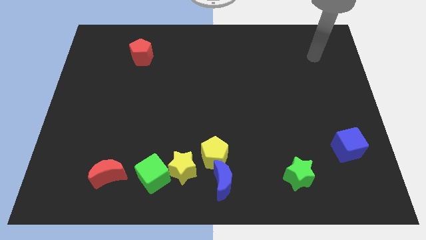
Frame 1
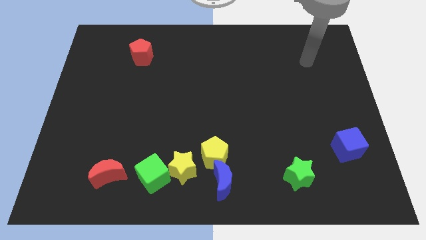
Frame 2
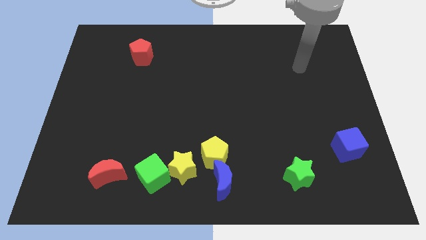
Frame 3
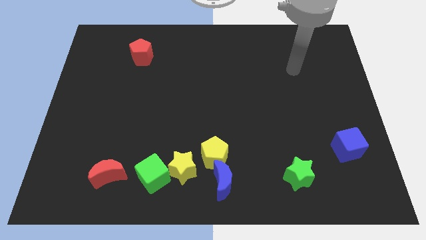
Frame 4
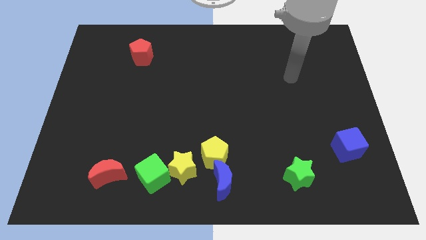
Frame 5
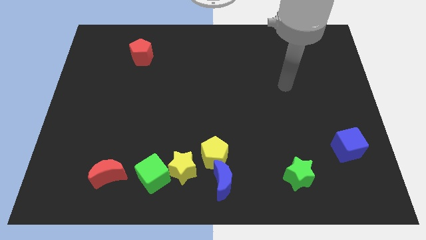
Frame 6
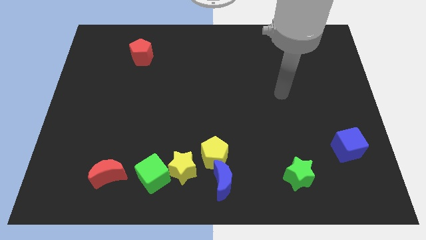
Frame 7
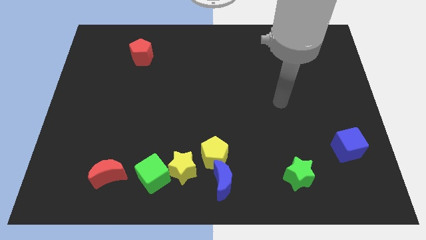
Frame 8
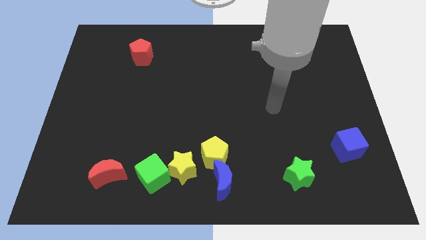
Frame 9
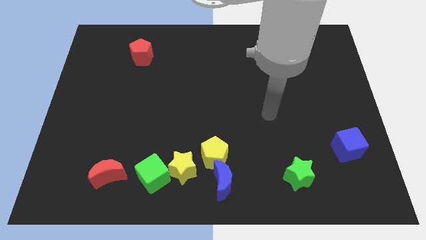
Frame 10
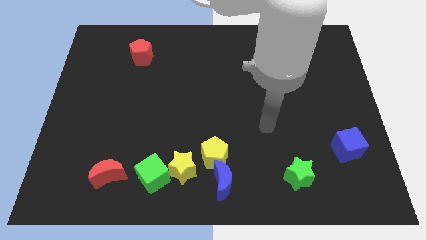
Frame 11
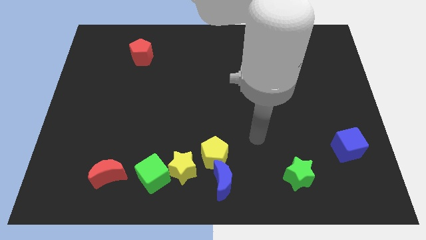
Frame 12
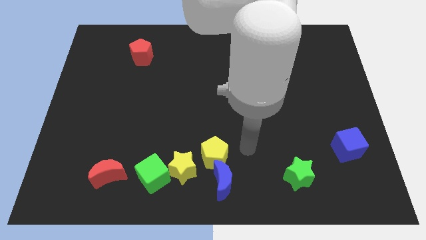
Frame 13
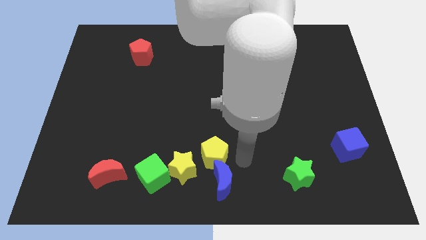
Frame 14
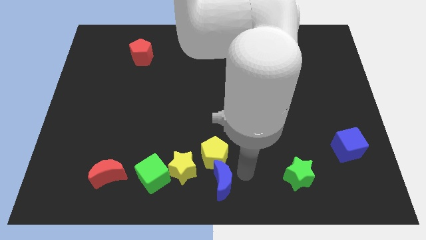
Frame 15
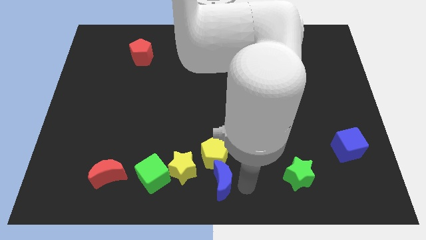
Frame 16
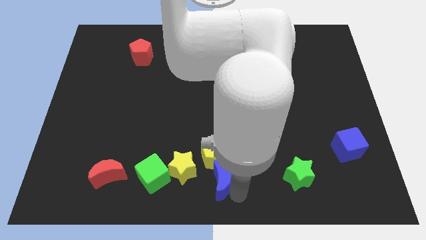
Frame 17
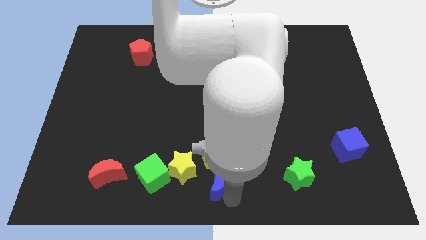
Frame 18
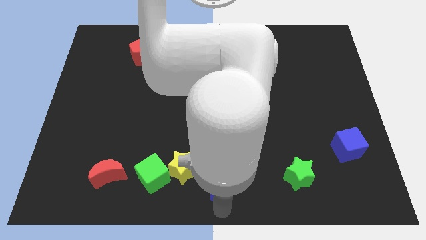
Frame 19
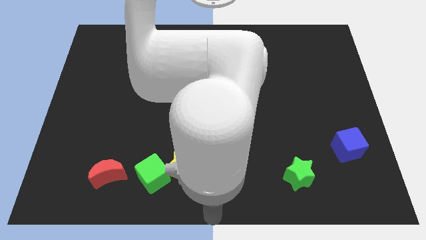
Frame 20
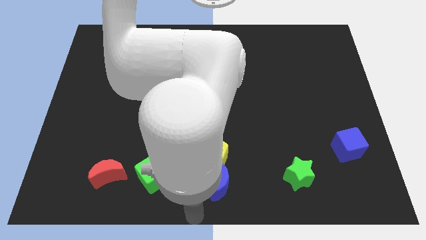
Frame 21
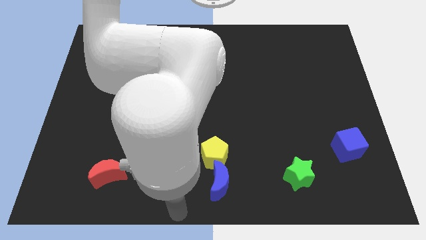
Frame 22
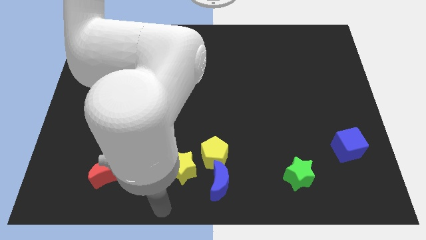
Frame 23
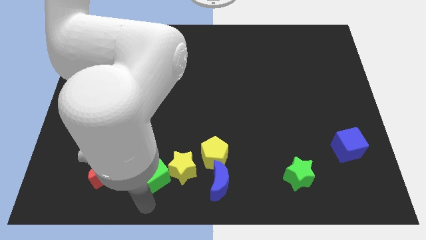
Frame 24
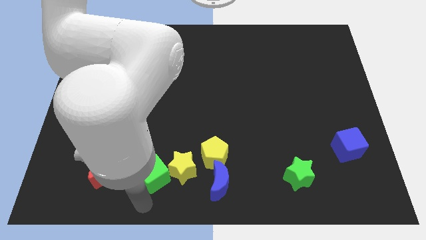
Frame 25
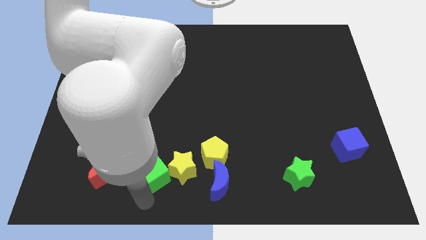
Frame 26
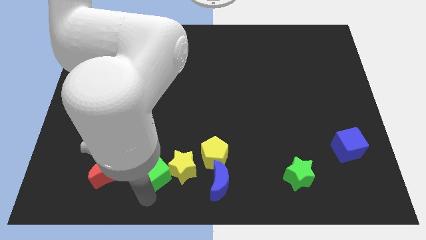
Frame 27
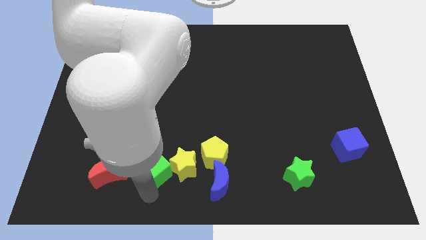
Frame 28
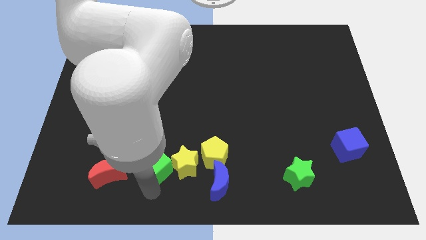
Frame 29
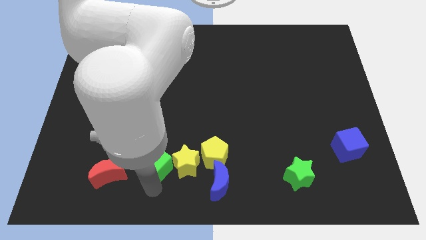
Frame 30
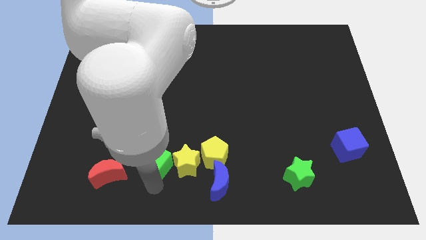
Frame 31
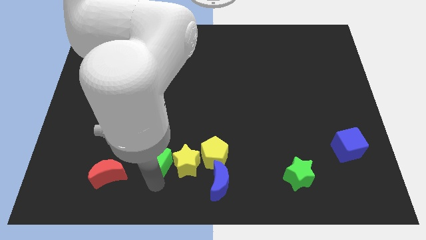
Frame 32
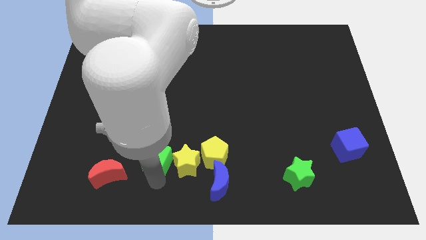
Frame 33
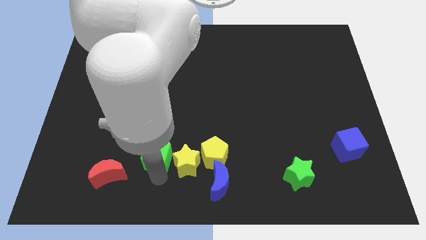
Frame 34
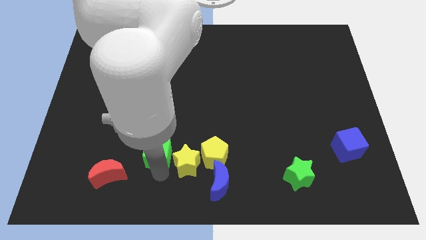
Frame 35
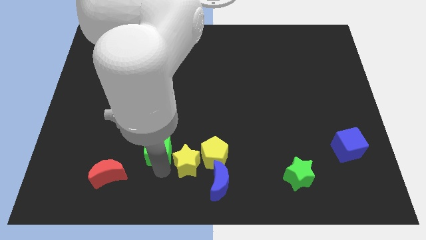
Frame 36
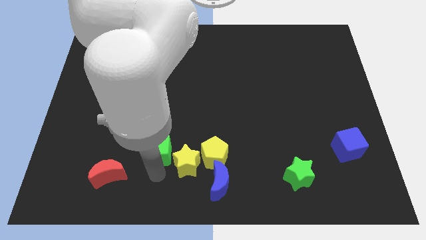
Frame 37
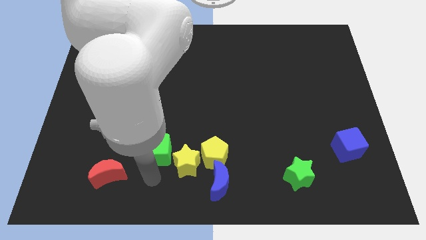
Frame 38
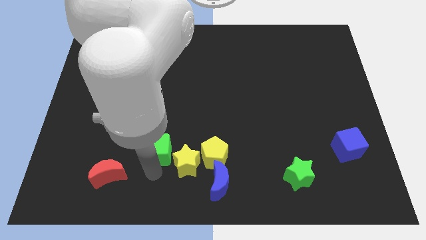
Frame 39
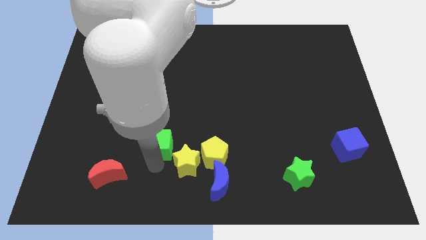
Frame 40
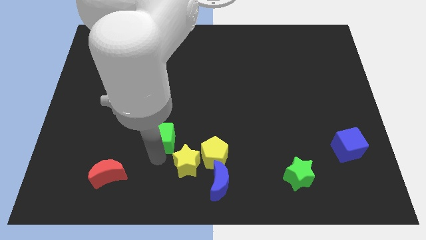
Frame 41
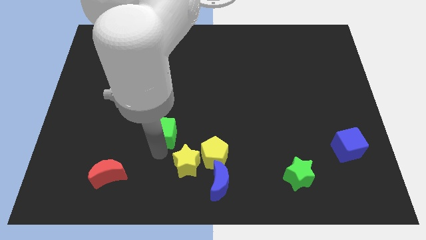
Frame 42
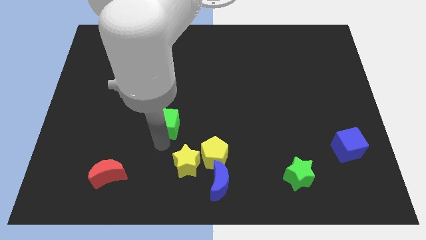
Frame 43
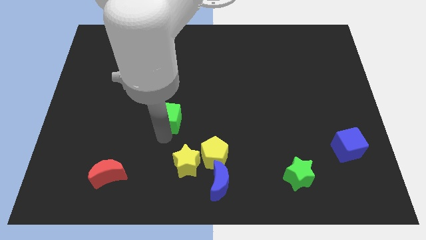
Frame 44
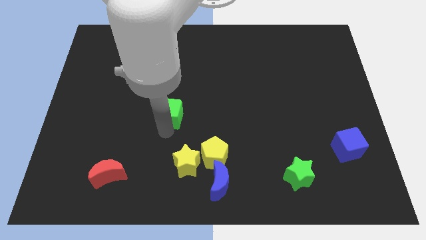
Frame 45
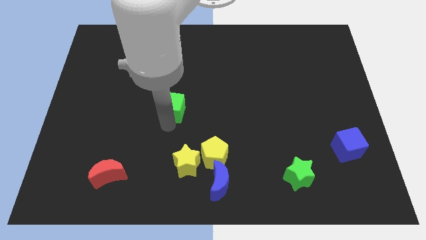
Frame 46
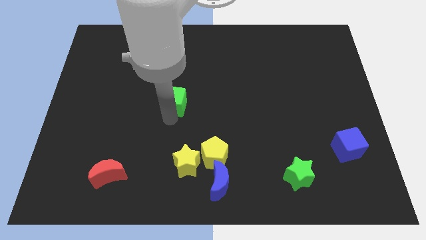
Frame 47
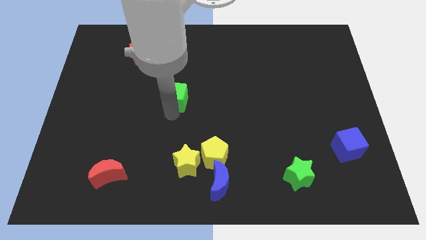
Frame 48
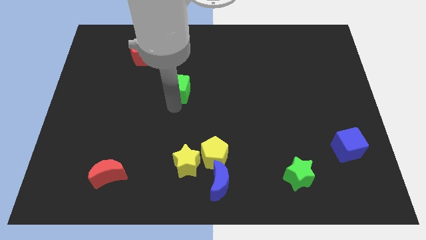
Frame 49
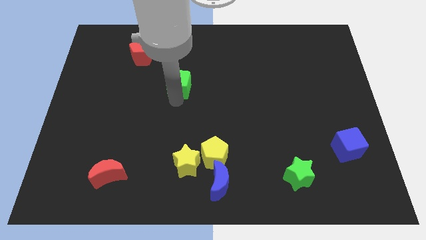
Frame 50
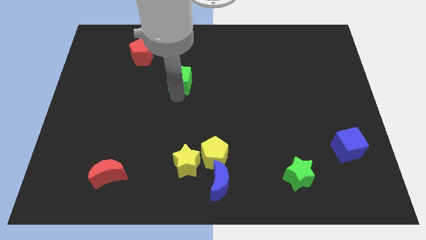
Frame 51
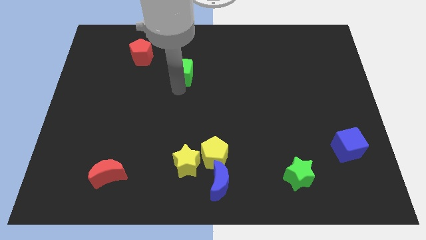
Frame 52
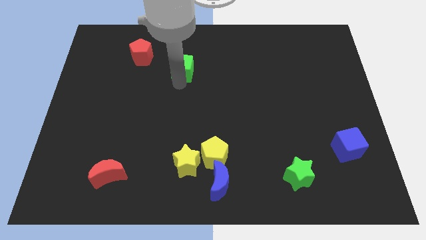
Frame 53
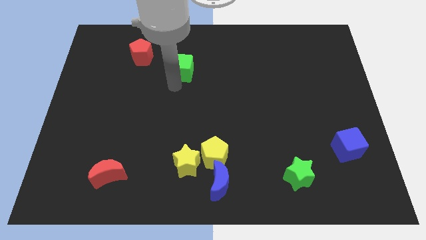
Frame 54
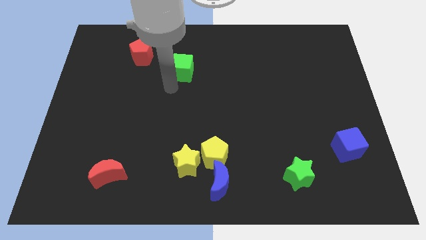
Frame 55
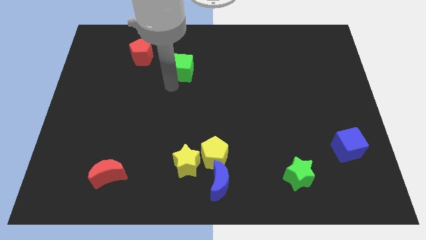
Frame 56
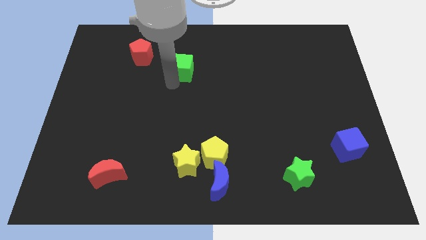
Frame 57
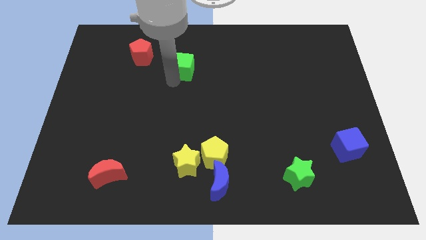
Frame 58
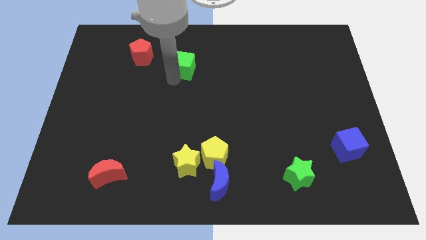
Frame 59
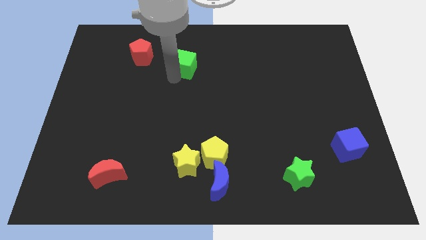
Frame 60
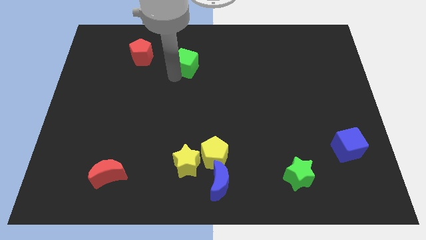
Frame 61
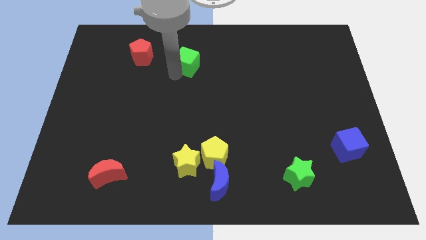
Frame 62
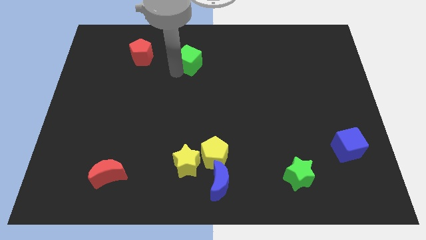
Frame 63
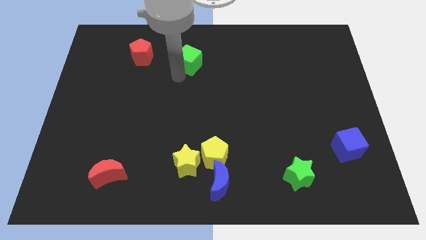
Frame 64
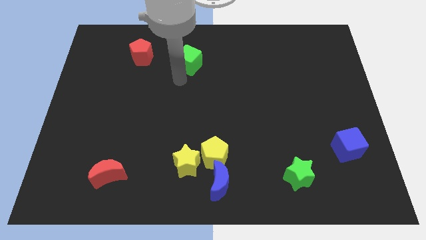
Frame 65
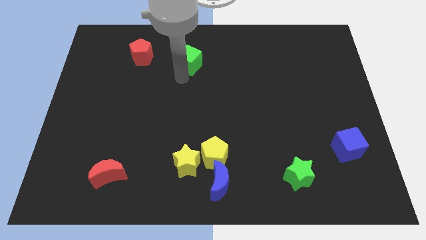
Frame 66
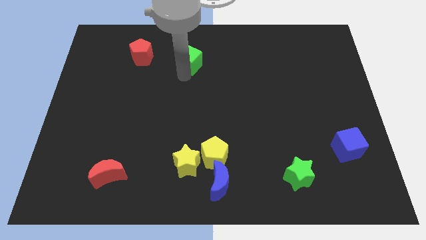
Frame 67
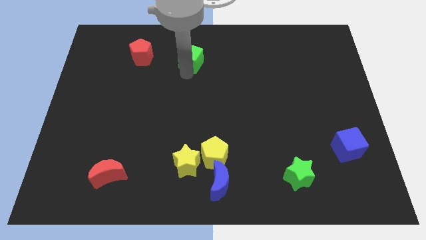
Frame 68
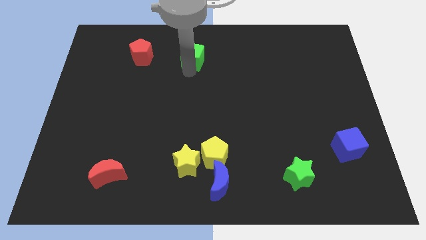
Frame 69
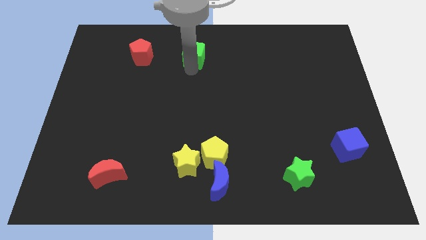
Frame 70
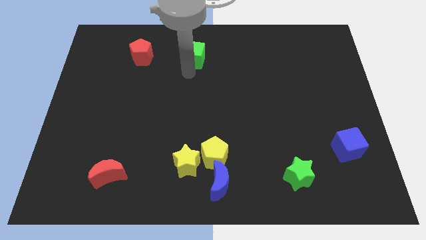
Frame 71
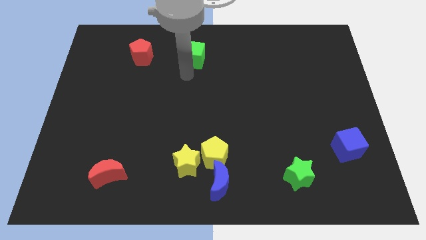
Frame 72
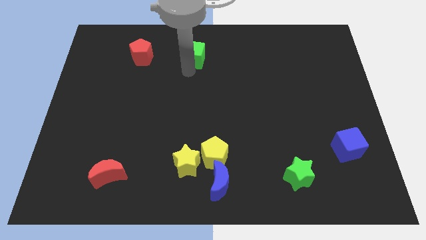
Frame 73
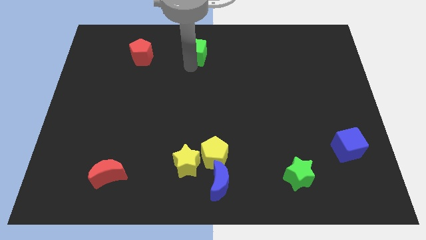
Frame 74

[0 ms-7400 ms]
slide the green cube to the top
